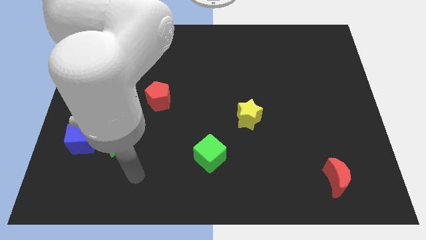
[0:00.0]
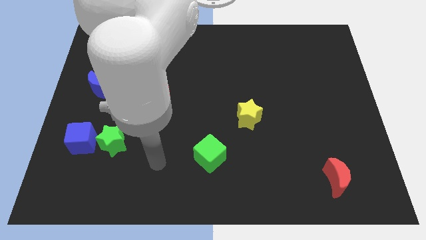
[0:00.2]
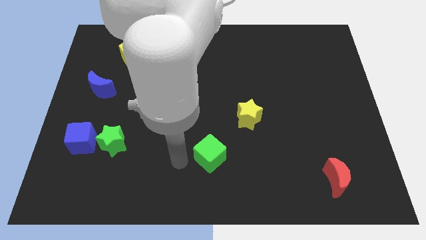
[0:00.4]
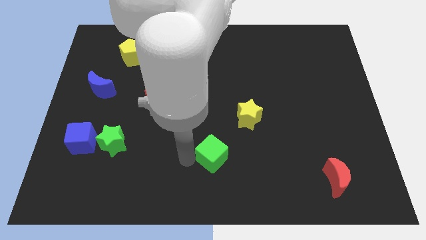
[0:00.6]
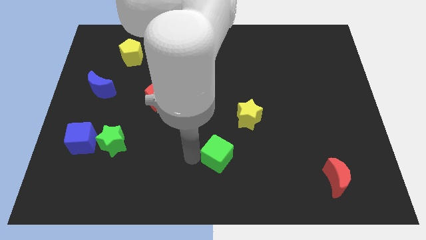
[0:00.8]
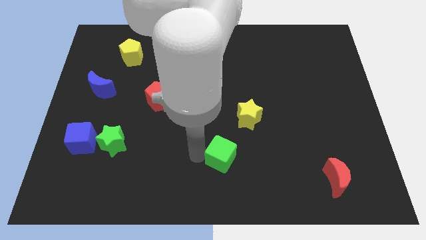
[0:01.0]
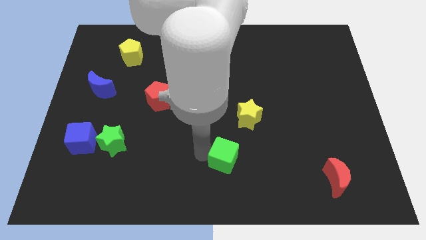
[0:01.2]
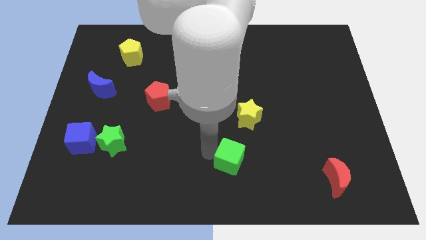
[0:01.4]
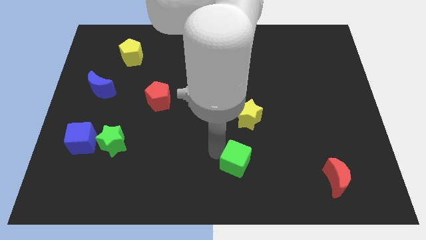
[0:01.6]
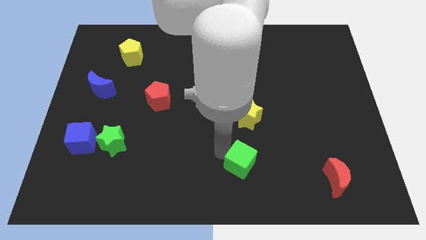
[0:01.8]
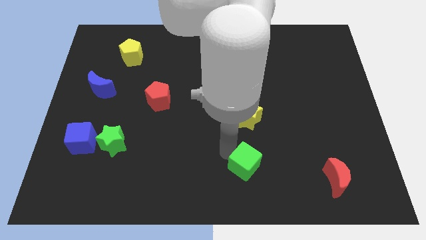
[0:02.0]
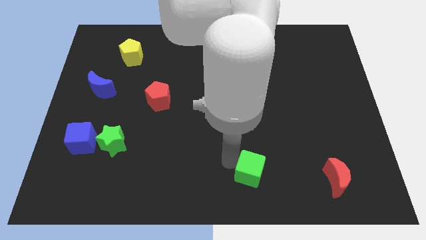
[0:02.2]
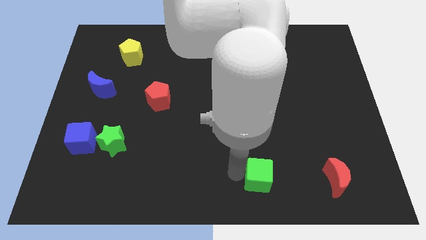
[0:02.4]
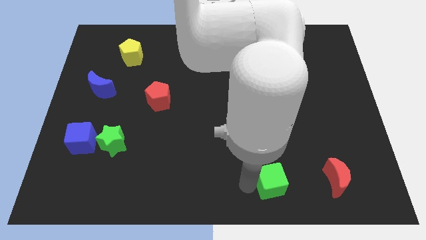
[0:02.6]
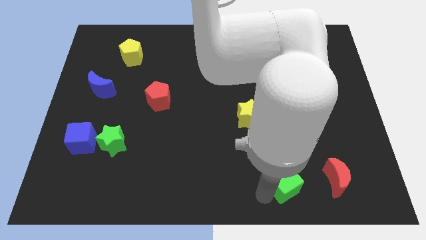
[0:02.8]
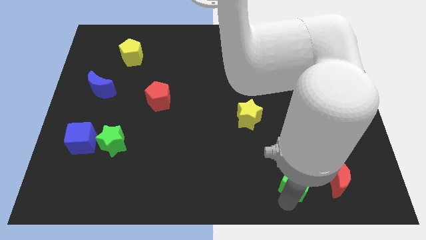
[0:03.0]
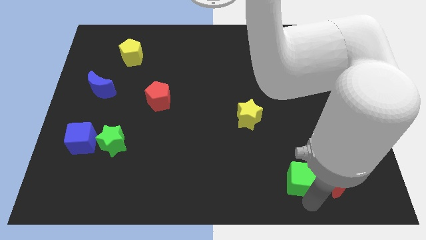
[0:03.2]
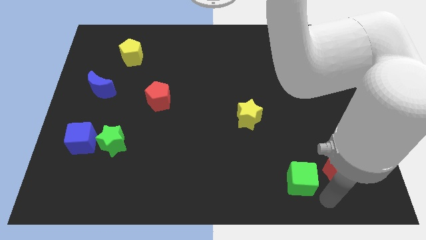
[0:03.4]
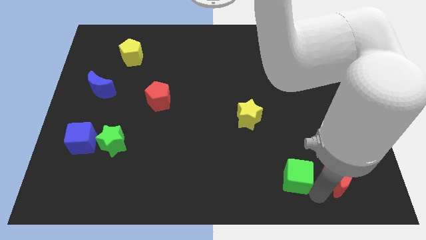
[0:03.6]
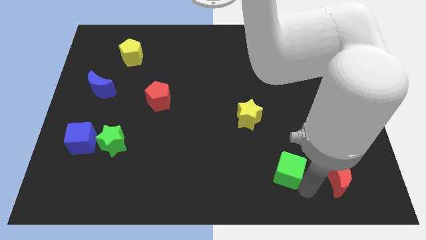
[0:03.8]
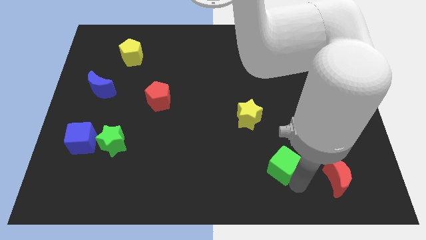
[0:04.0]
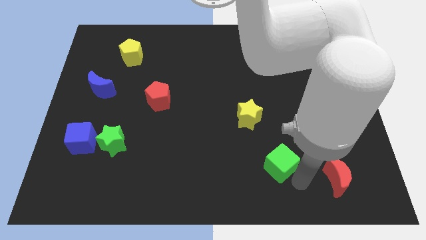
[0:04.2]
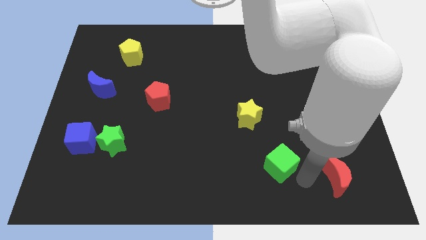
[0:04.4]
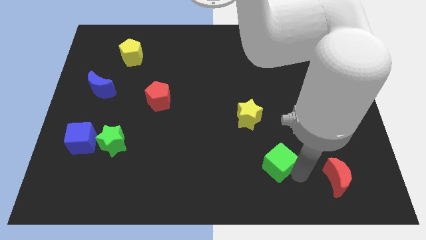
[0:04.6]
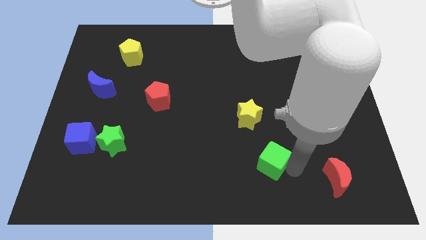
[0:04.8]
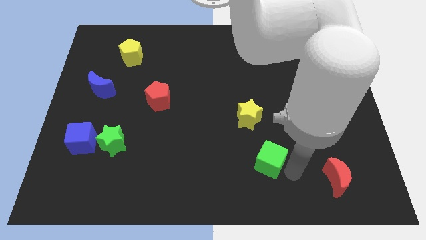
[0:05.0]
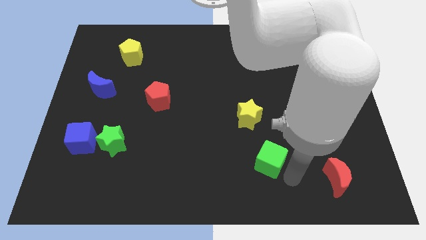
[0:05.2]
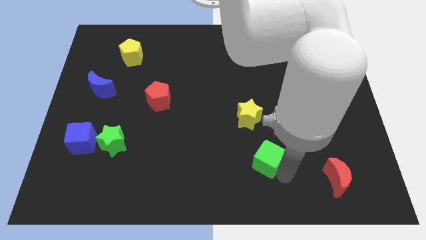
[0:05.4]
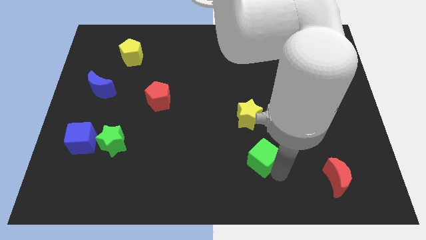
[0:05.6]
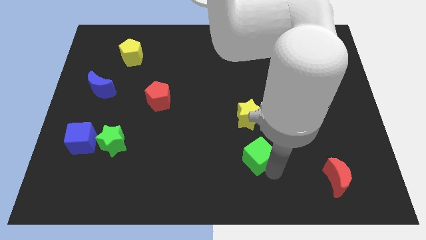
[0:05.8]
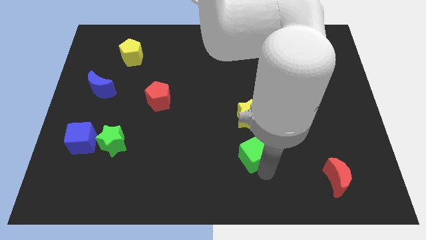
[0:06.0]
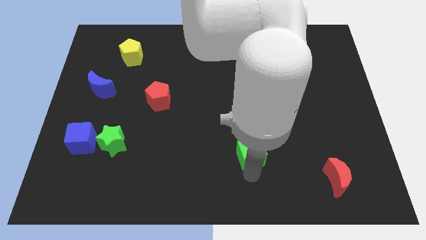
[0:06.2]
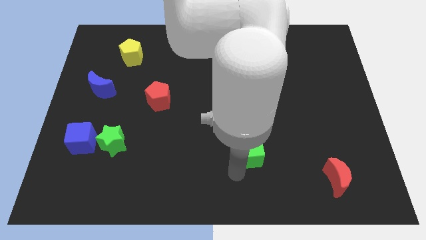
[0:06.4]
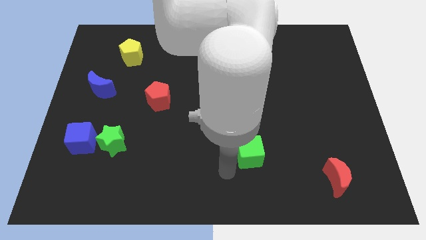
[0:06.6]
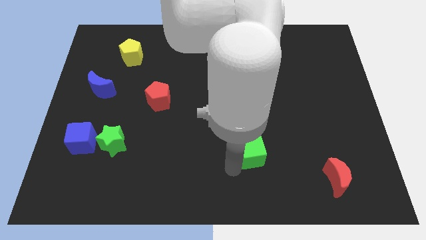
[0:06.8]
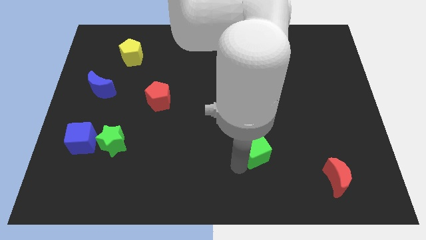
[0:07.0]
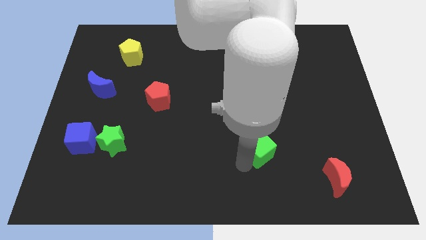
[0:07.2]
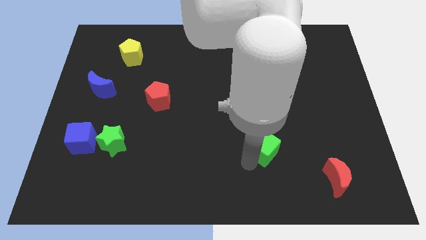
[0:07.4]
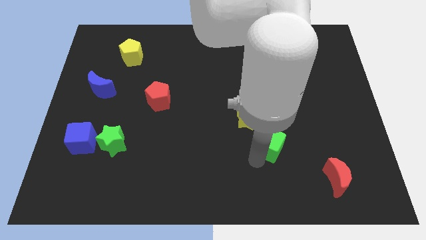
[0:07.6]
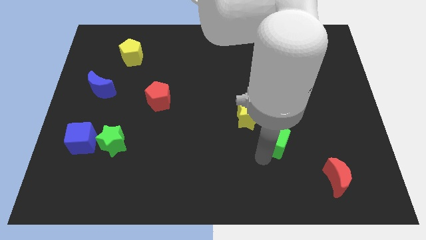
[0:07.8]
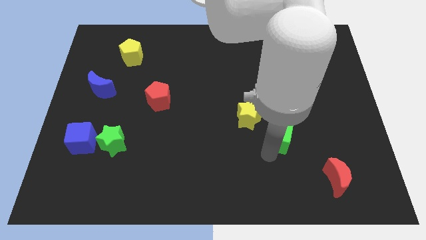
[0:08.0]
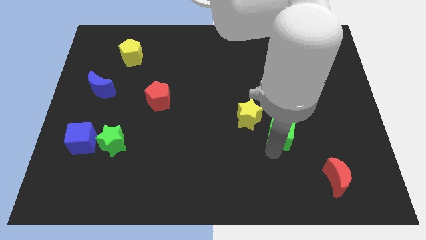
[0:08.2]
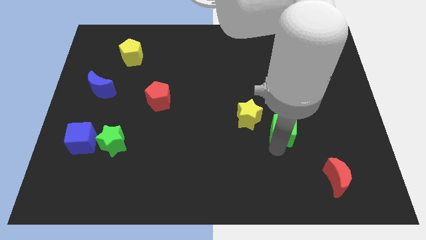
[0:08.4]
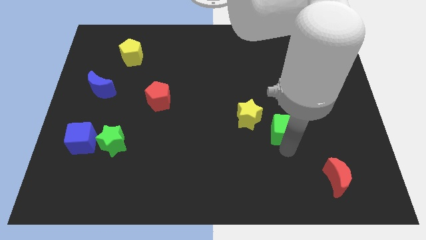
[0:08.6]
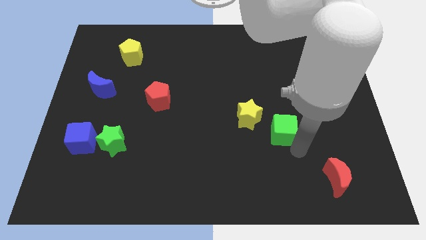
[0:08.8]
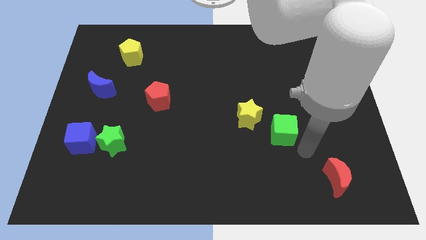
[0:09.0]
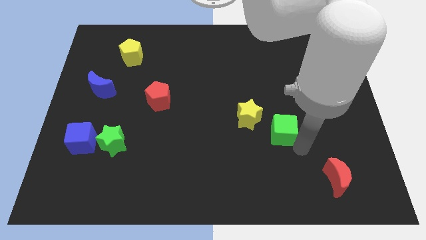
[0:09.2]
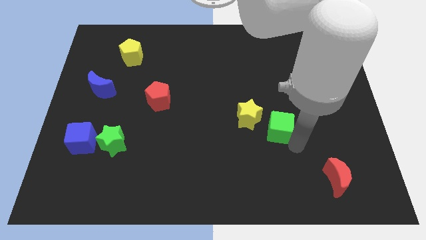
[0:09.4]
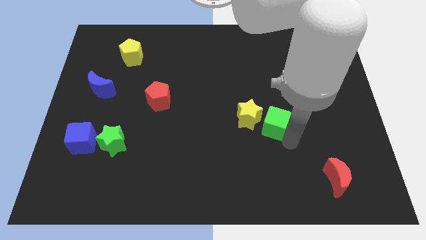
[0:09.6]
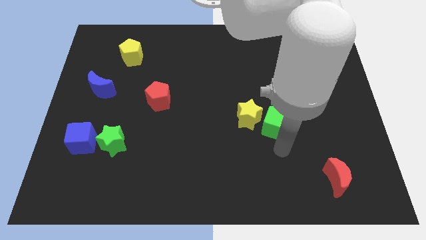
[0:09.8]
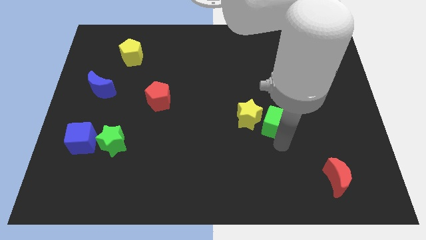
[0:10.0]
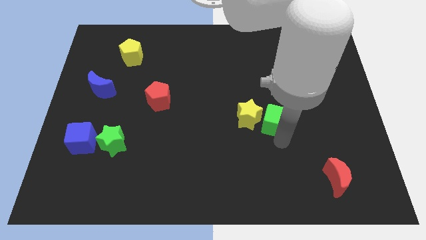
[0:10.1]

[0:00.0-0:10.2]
put the green cube diagonally up and to the right of the yellow star

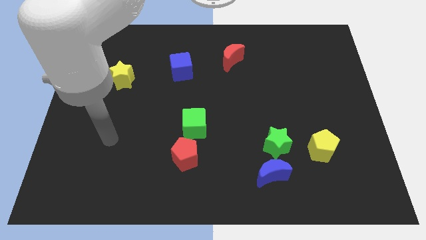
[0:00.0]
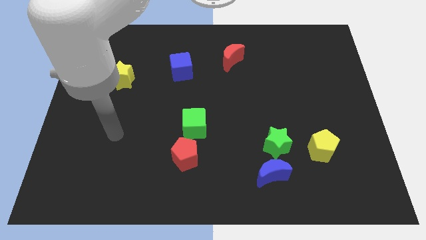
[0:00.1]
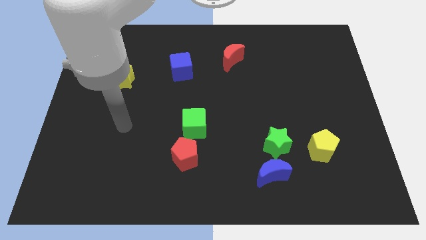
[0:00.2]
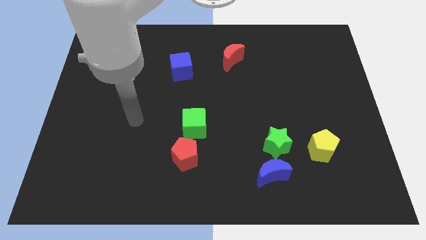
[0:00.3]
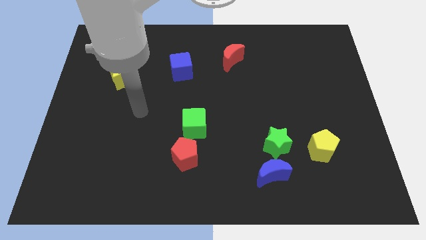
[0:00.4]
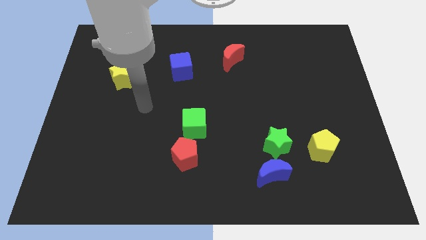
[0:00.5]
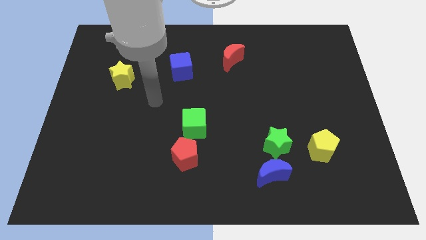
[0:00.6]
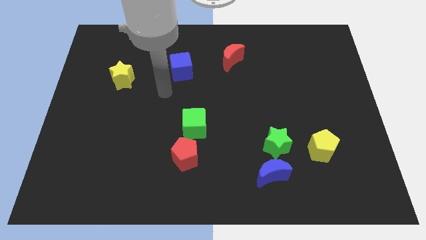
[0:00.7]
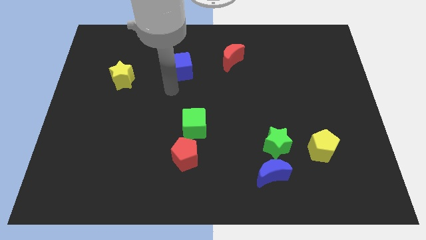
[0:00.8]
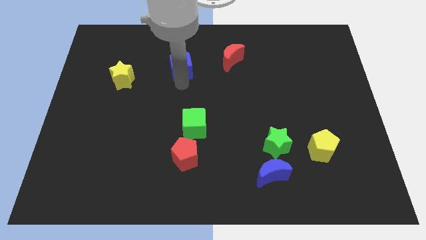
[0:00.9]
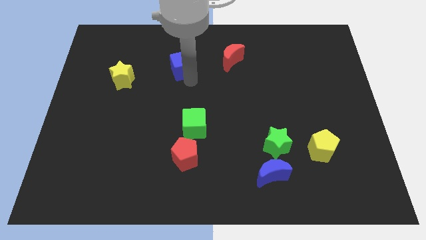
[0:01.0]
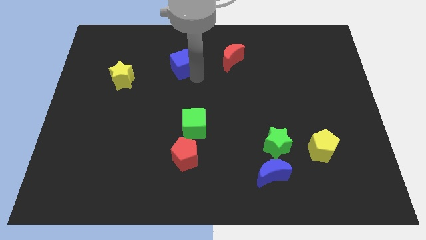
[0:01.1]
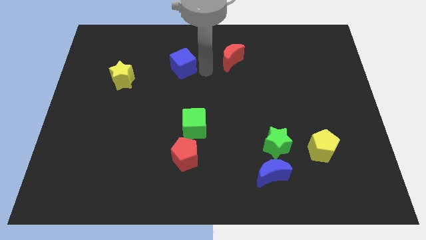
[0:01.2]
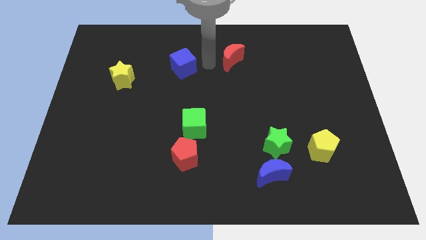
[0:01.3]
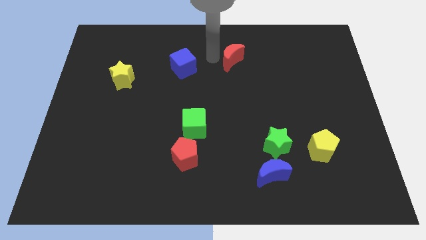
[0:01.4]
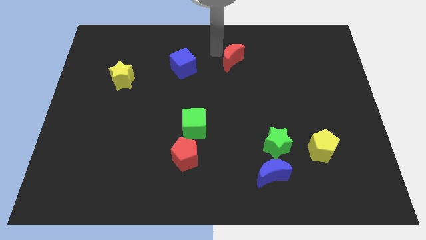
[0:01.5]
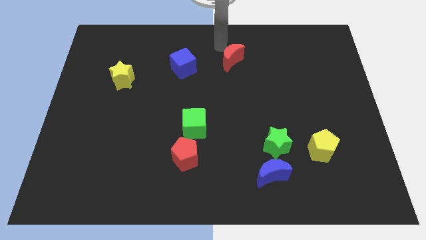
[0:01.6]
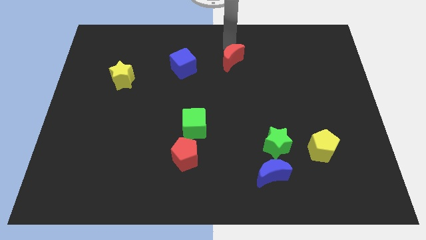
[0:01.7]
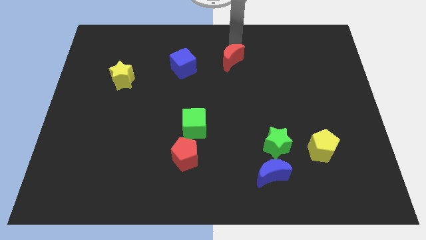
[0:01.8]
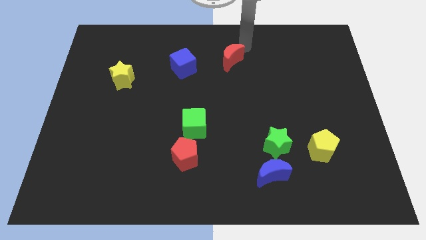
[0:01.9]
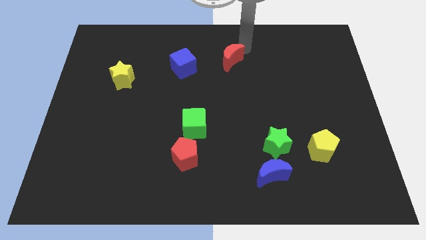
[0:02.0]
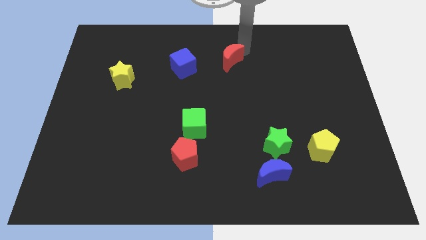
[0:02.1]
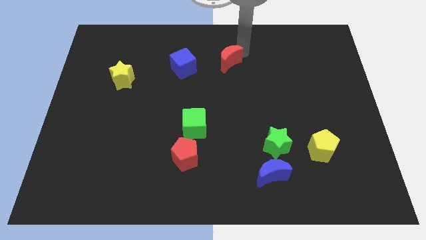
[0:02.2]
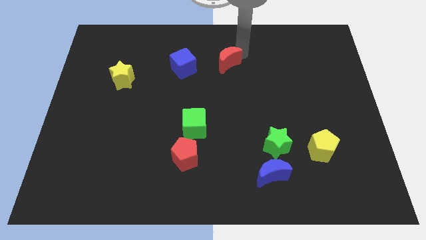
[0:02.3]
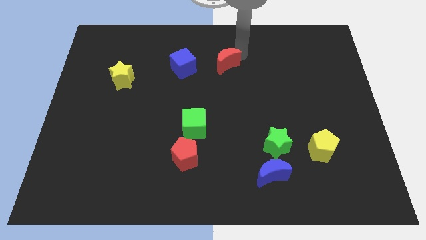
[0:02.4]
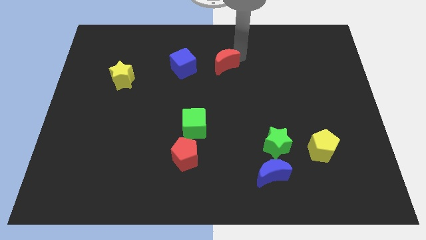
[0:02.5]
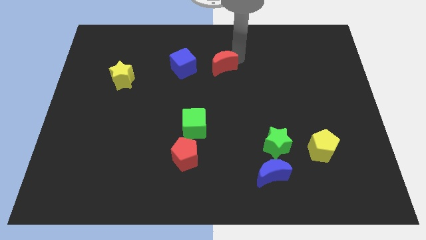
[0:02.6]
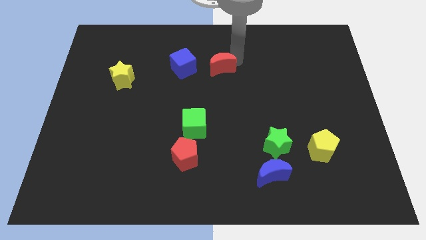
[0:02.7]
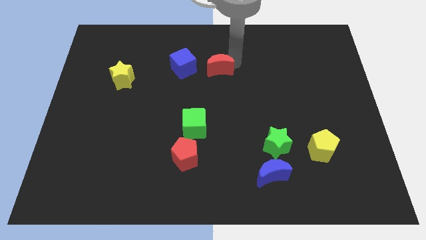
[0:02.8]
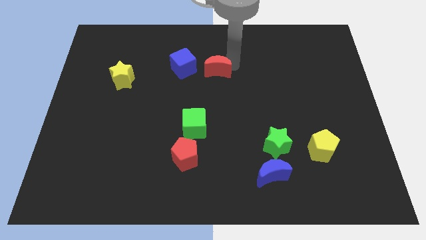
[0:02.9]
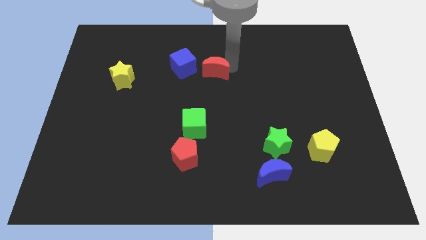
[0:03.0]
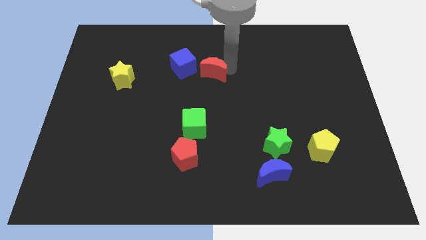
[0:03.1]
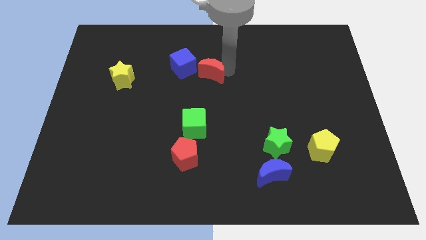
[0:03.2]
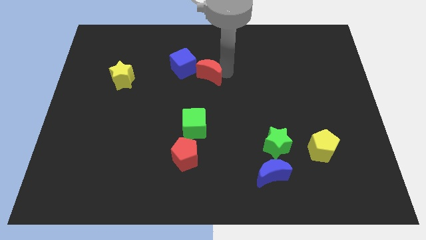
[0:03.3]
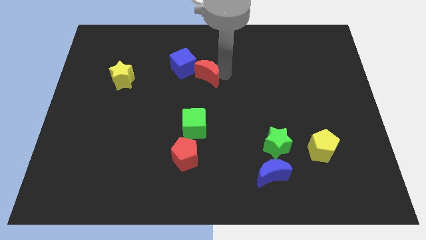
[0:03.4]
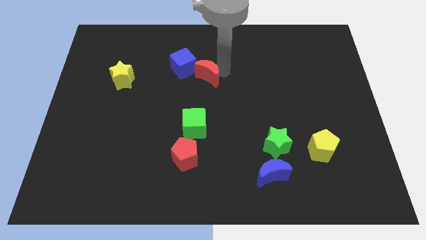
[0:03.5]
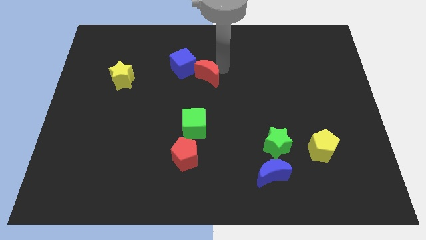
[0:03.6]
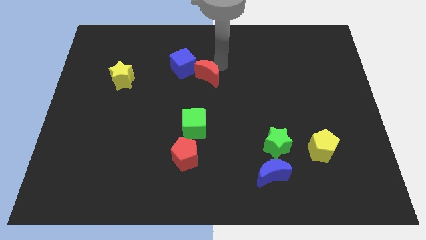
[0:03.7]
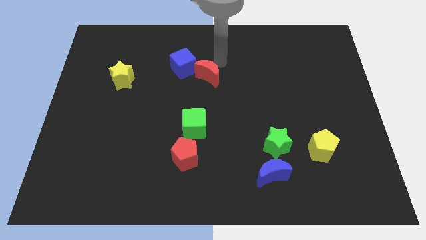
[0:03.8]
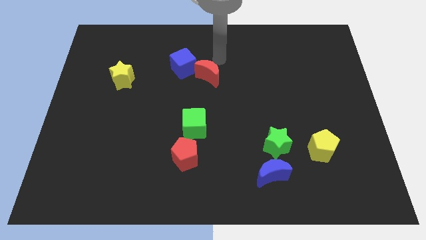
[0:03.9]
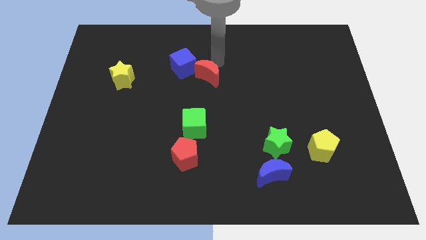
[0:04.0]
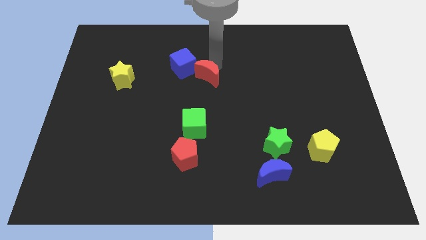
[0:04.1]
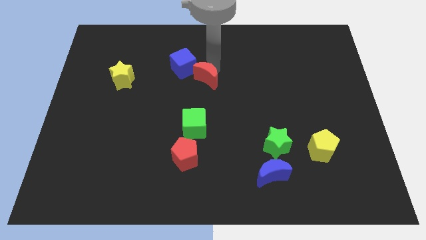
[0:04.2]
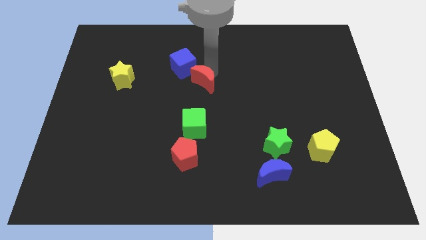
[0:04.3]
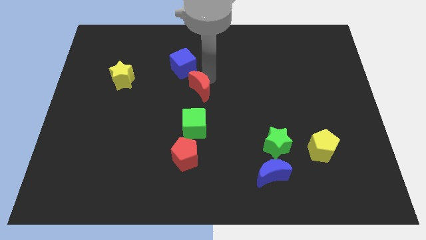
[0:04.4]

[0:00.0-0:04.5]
slide the red moon to the bottom of the blue cube
